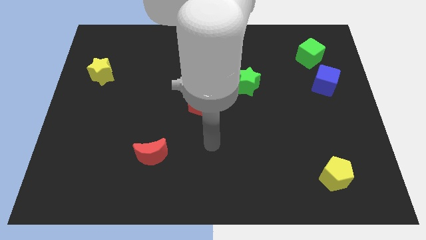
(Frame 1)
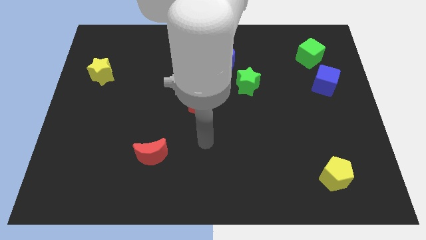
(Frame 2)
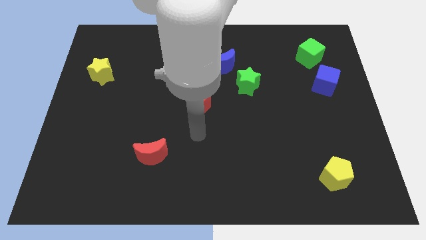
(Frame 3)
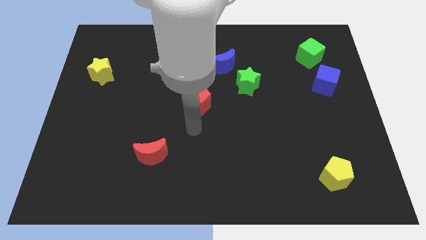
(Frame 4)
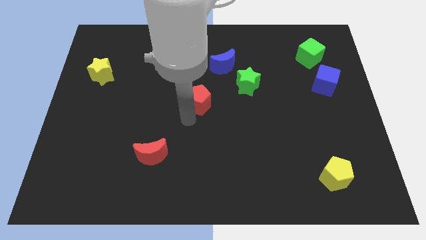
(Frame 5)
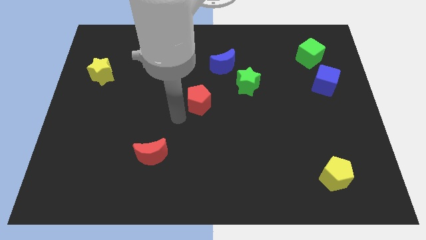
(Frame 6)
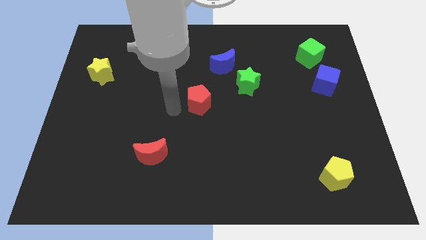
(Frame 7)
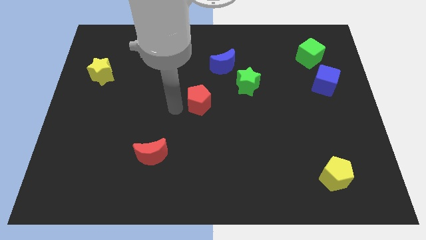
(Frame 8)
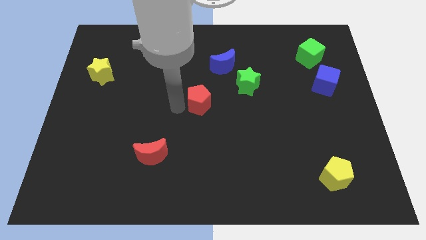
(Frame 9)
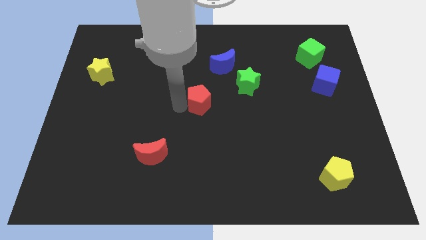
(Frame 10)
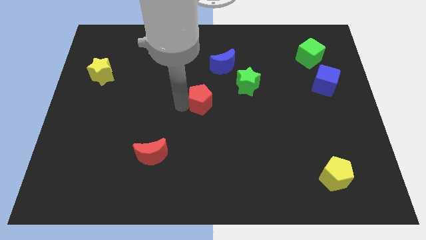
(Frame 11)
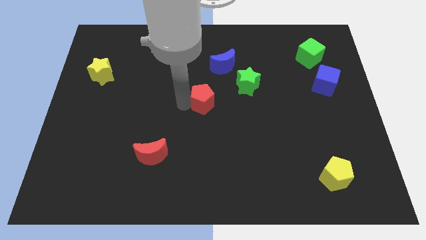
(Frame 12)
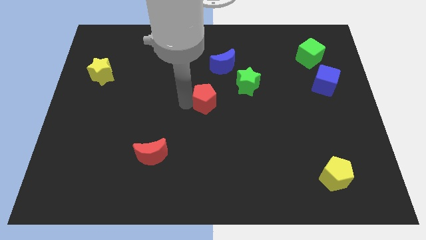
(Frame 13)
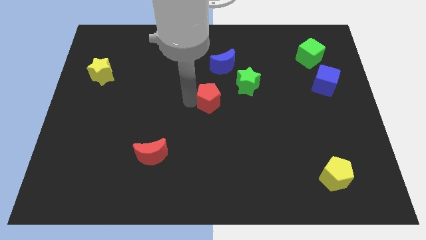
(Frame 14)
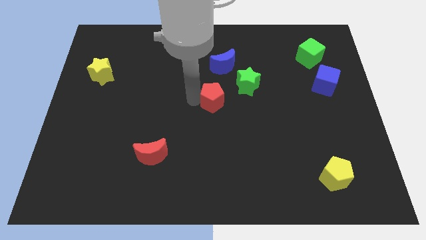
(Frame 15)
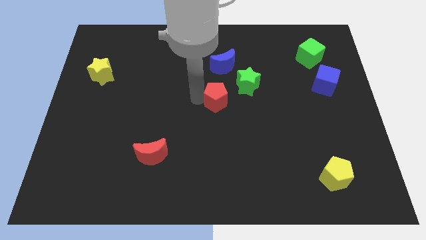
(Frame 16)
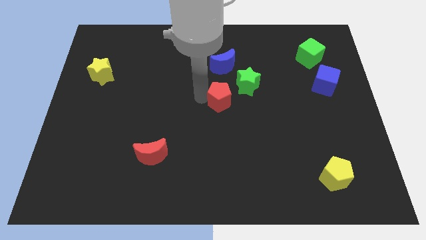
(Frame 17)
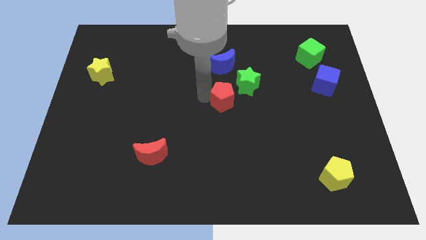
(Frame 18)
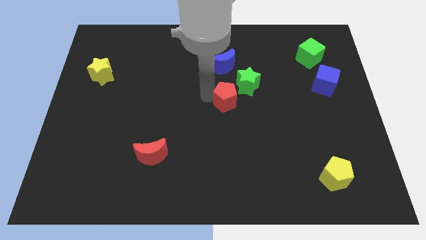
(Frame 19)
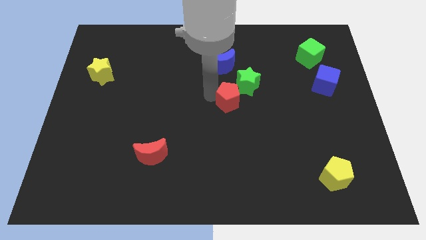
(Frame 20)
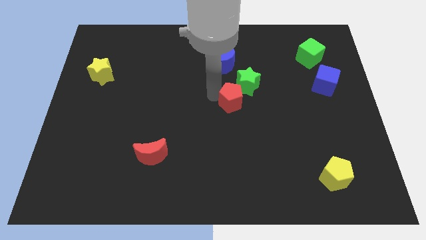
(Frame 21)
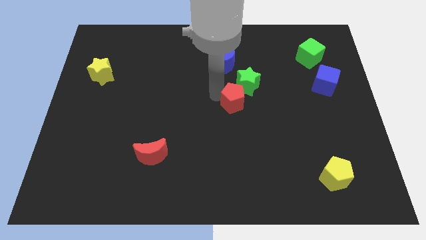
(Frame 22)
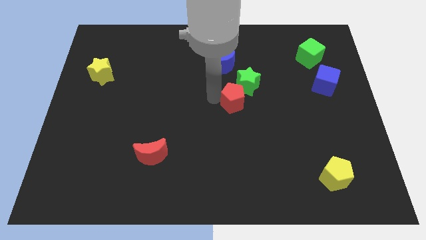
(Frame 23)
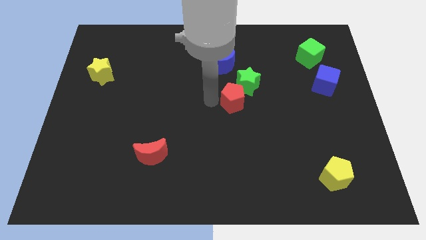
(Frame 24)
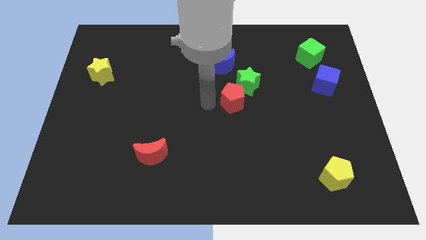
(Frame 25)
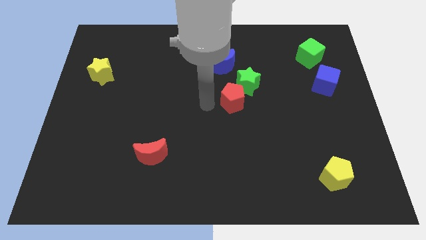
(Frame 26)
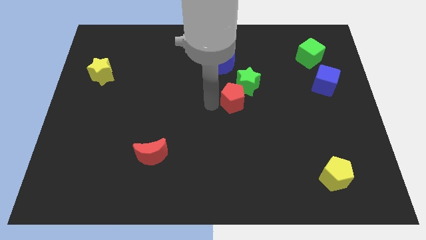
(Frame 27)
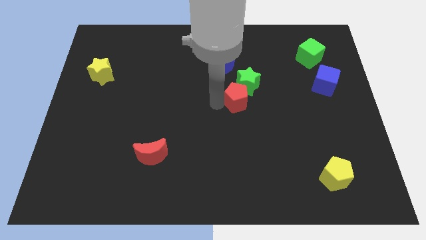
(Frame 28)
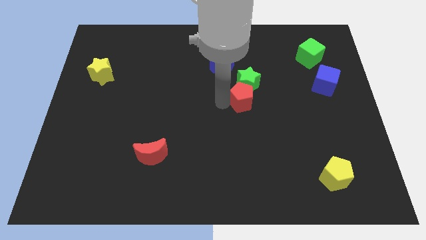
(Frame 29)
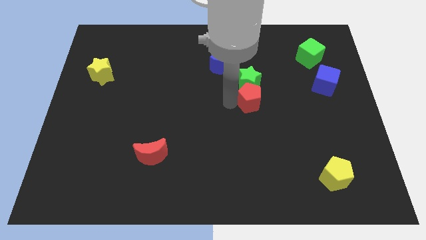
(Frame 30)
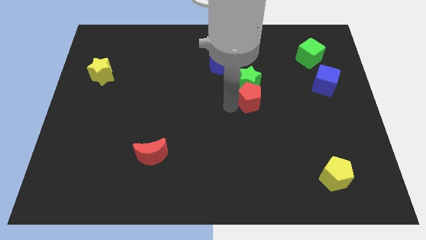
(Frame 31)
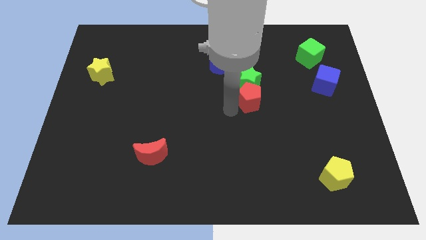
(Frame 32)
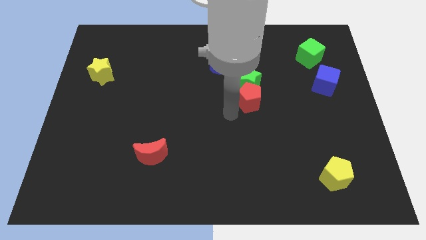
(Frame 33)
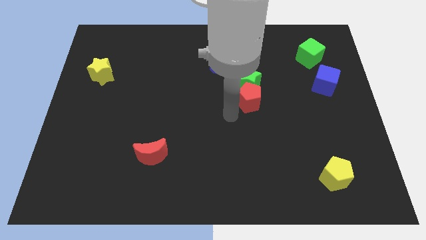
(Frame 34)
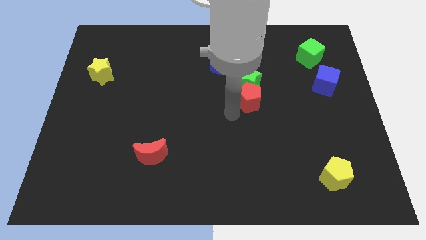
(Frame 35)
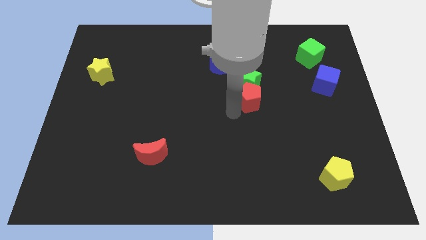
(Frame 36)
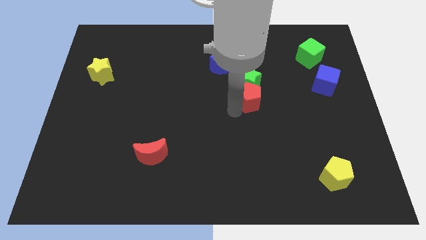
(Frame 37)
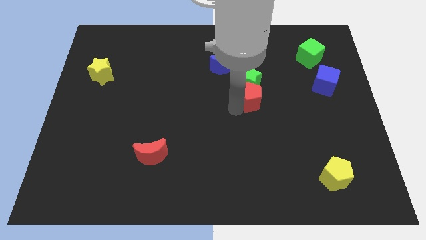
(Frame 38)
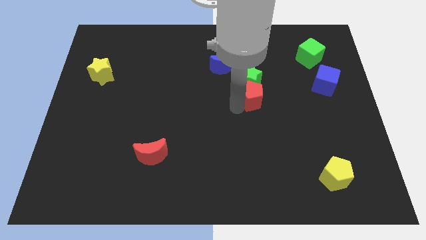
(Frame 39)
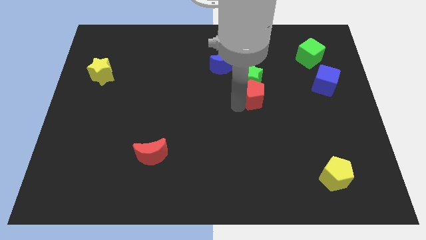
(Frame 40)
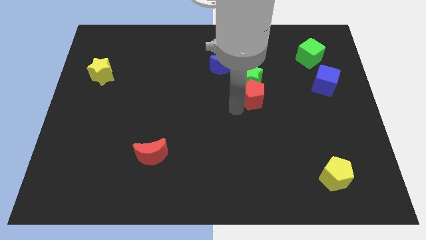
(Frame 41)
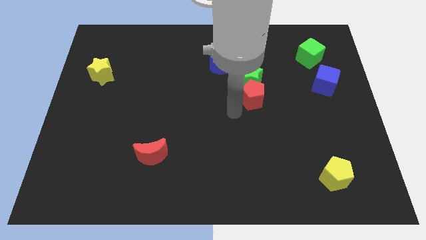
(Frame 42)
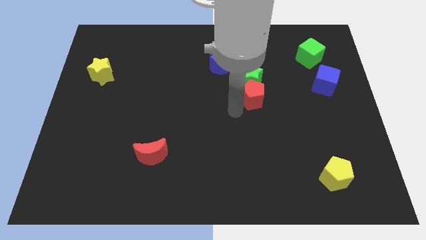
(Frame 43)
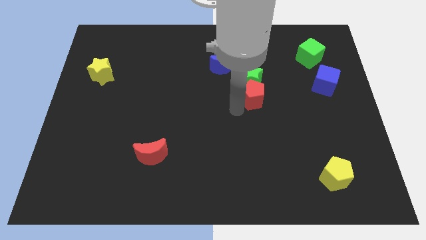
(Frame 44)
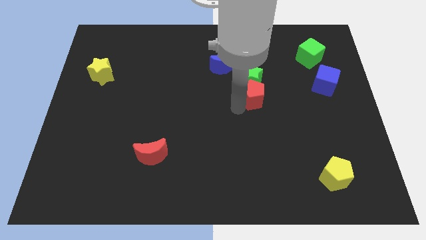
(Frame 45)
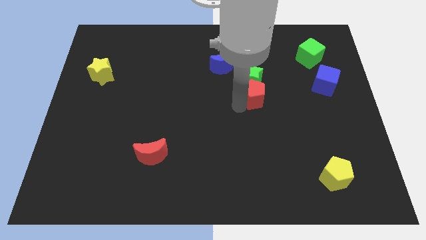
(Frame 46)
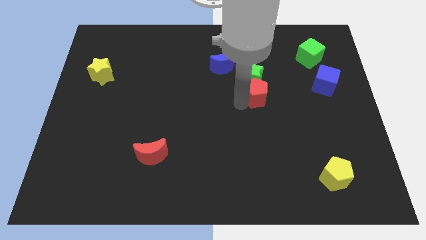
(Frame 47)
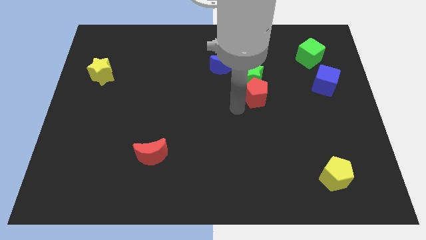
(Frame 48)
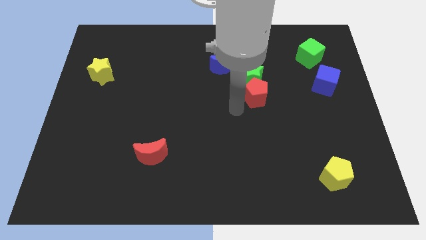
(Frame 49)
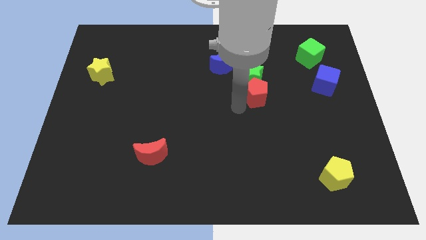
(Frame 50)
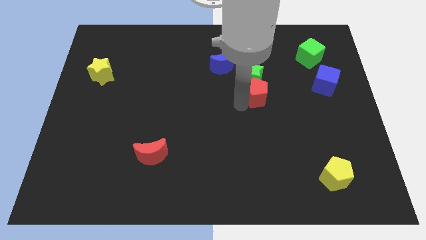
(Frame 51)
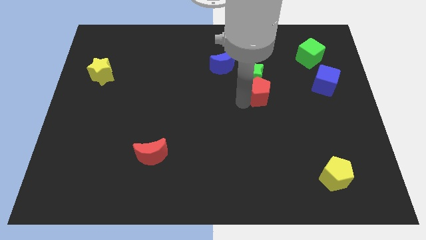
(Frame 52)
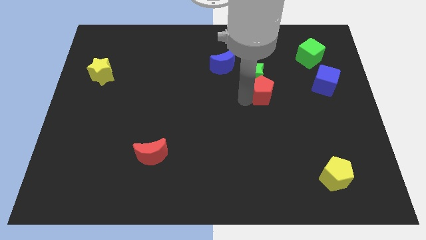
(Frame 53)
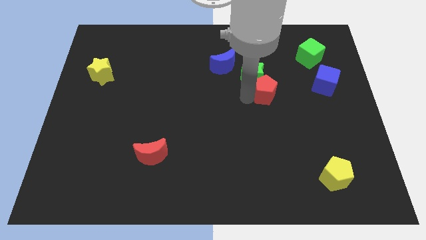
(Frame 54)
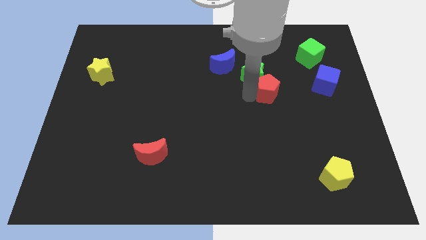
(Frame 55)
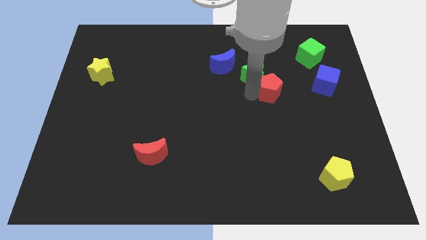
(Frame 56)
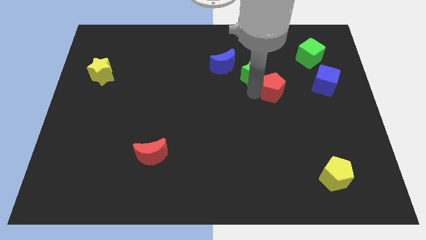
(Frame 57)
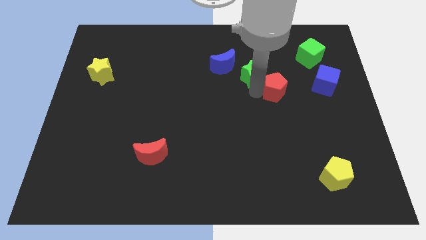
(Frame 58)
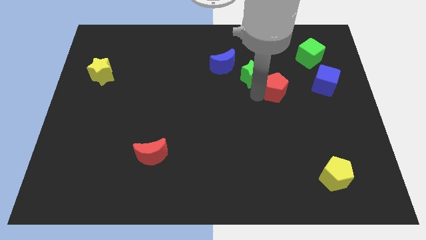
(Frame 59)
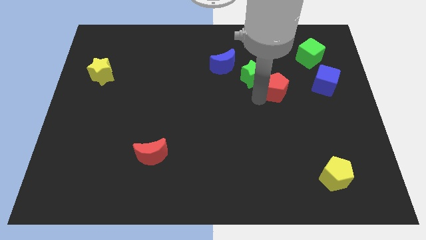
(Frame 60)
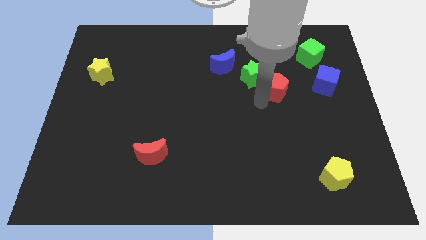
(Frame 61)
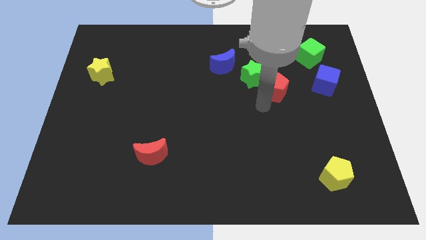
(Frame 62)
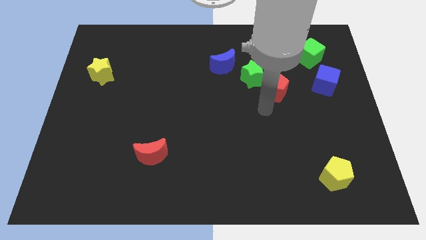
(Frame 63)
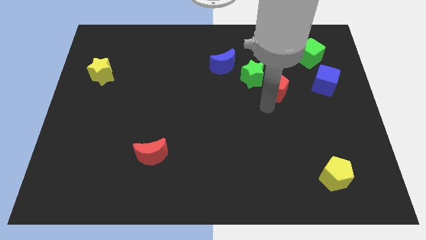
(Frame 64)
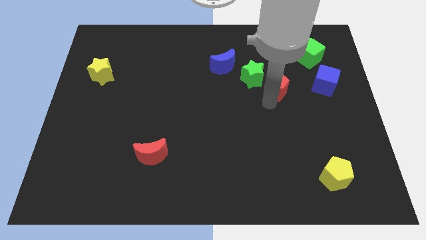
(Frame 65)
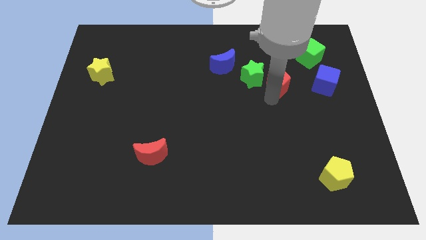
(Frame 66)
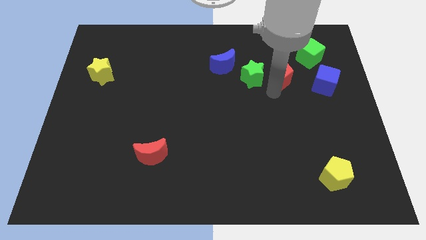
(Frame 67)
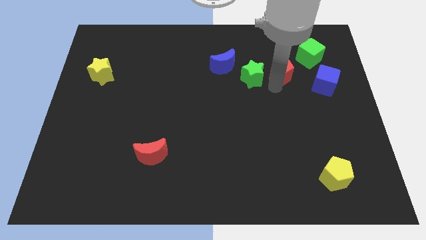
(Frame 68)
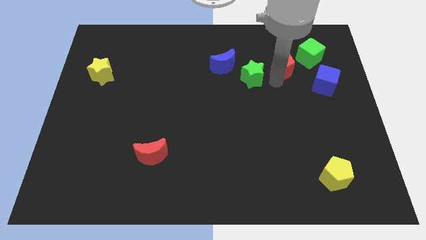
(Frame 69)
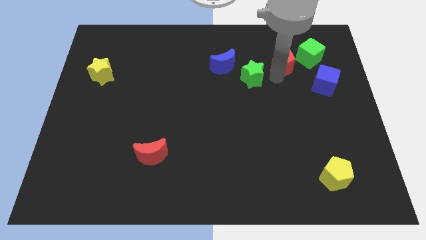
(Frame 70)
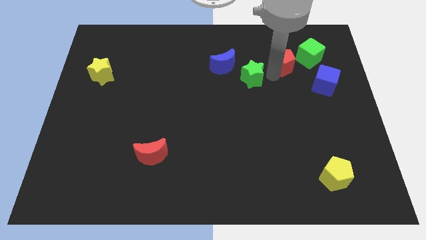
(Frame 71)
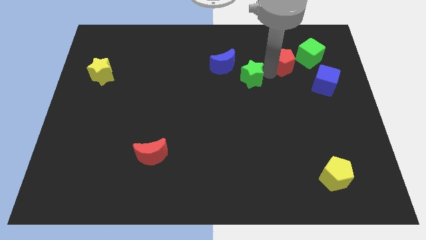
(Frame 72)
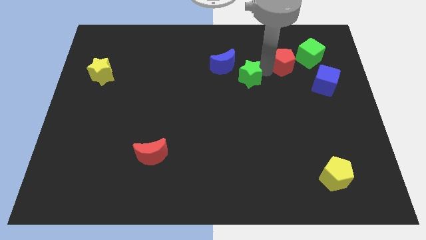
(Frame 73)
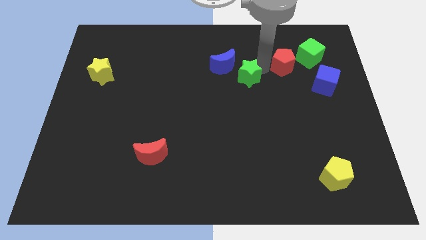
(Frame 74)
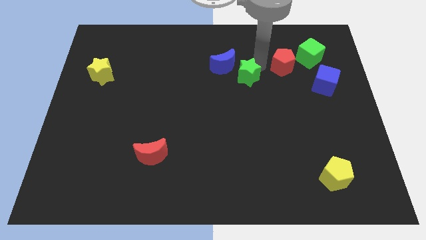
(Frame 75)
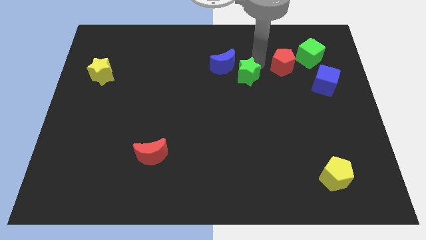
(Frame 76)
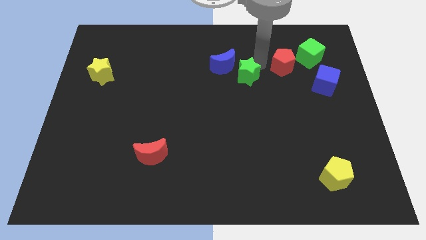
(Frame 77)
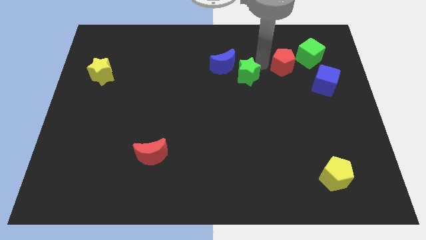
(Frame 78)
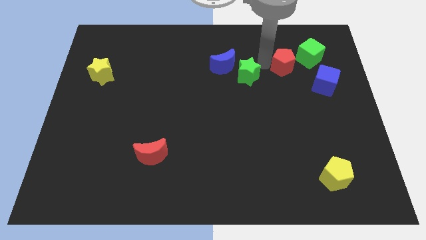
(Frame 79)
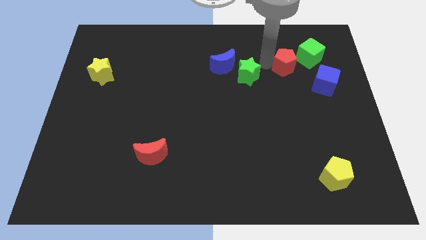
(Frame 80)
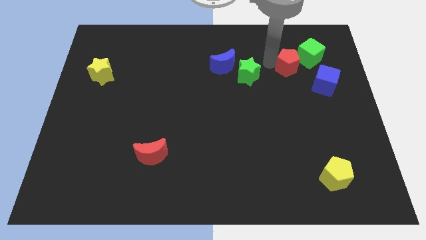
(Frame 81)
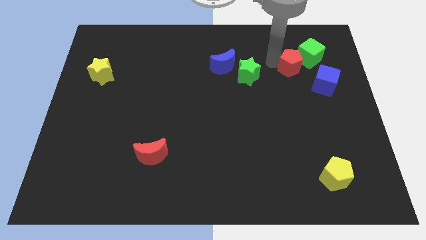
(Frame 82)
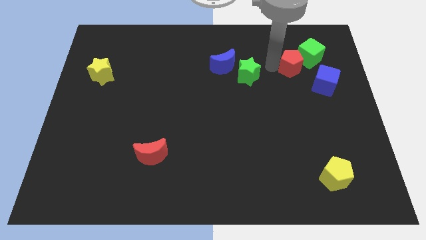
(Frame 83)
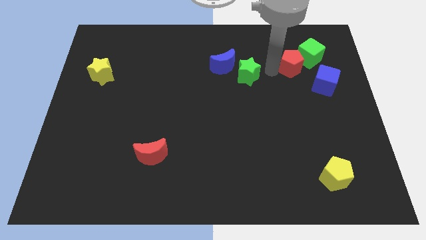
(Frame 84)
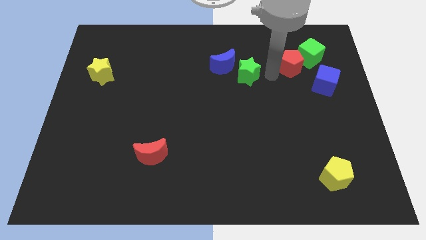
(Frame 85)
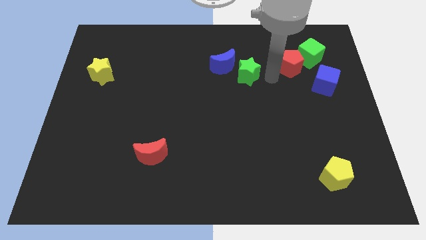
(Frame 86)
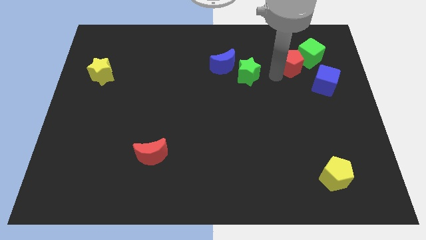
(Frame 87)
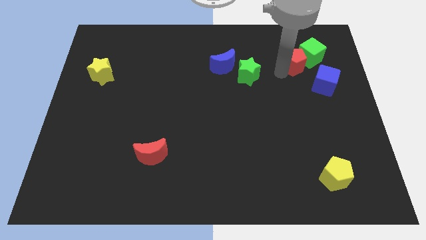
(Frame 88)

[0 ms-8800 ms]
slide the red pentagon next to the green cube
